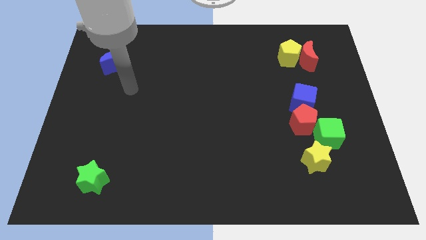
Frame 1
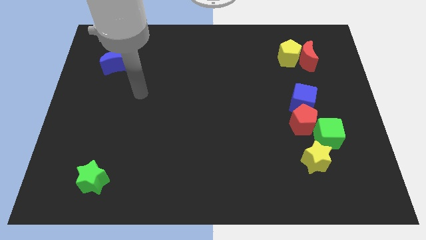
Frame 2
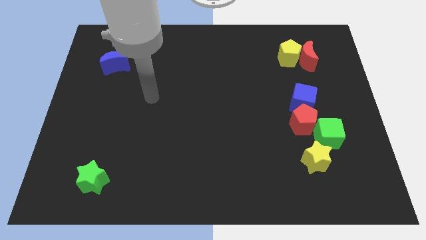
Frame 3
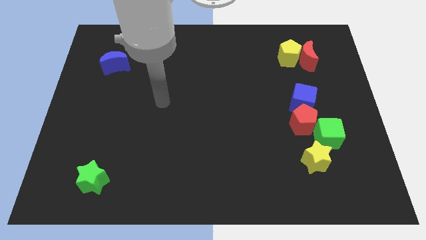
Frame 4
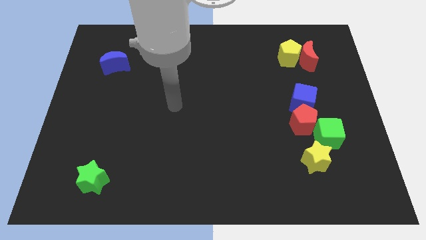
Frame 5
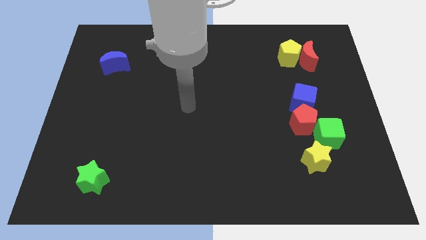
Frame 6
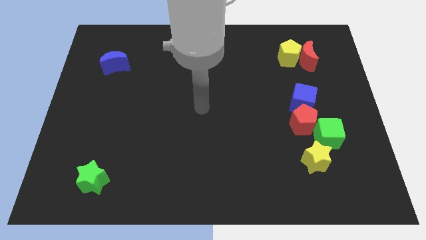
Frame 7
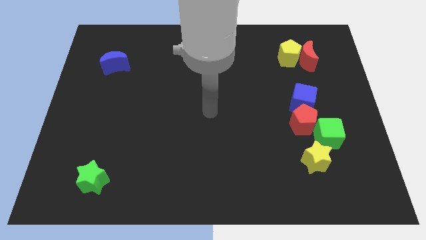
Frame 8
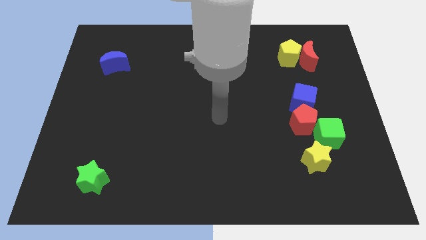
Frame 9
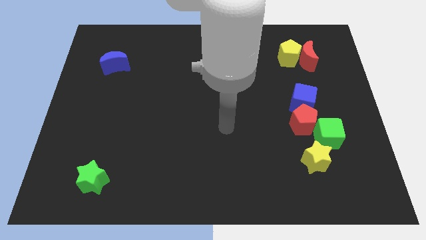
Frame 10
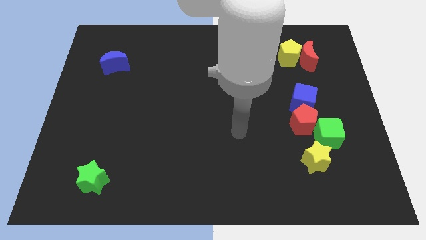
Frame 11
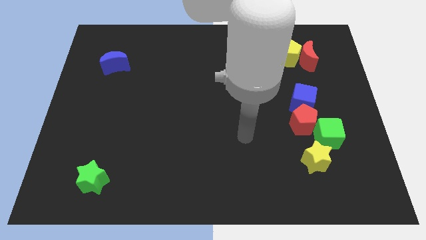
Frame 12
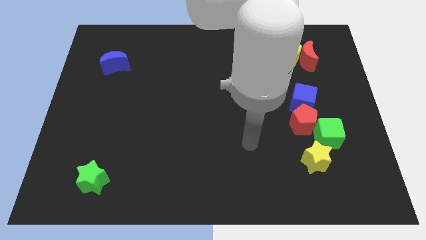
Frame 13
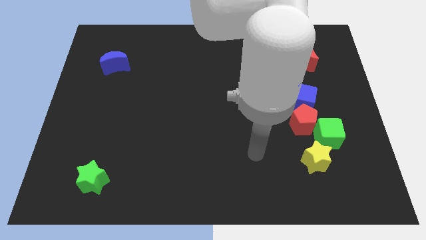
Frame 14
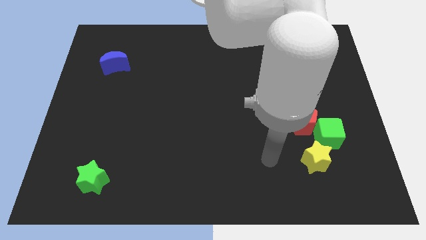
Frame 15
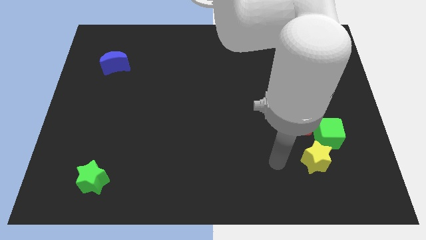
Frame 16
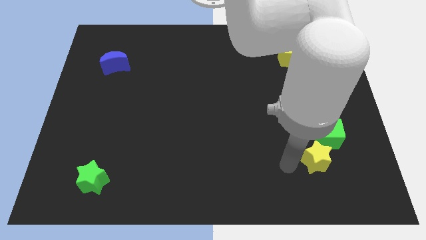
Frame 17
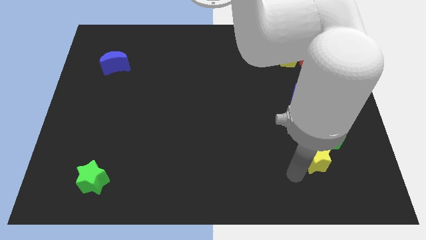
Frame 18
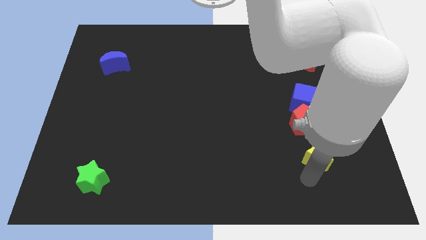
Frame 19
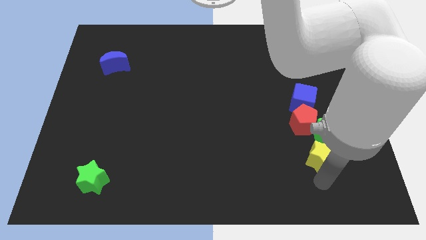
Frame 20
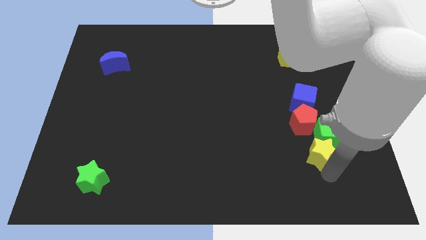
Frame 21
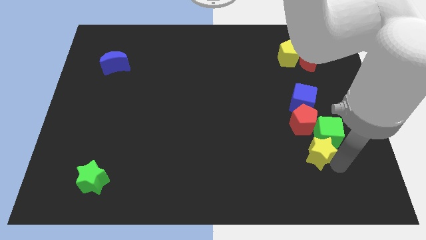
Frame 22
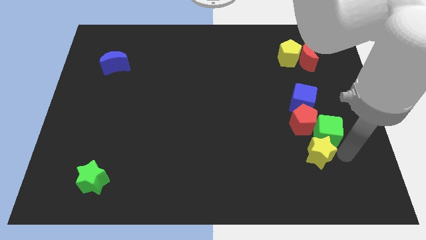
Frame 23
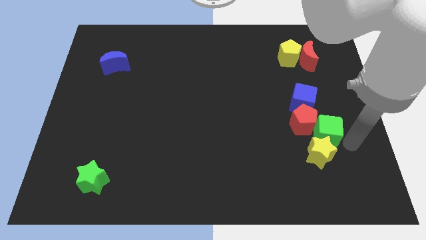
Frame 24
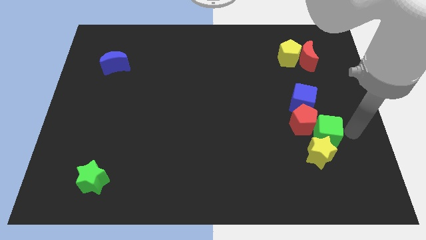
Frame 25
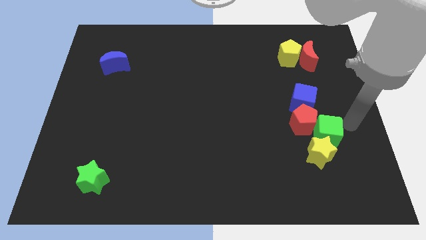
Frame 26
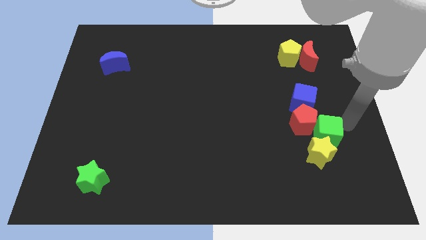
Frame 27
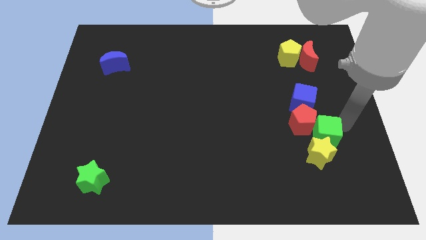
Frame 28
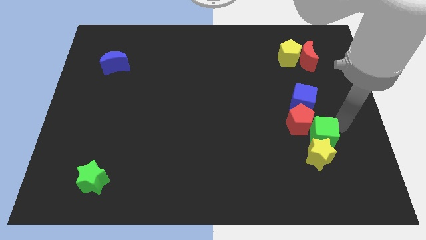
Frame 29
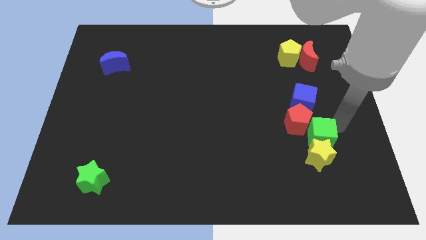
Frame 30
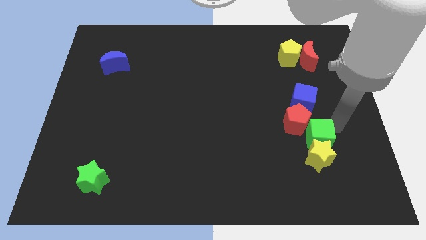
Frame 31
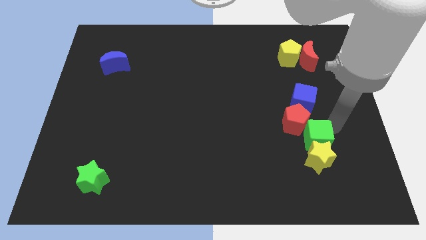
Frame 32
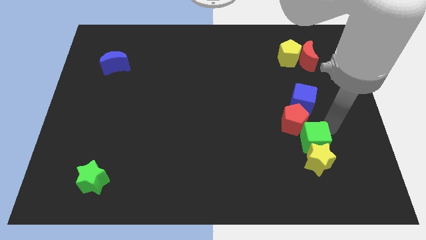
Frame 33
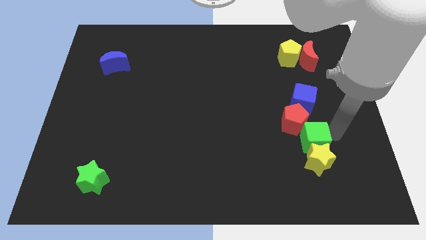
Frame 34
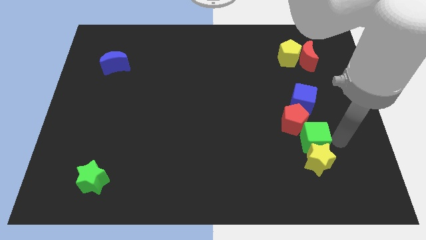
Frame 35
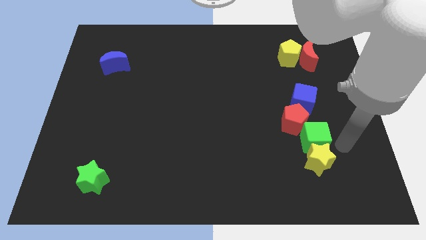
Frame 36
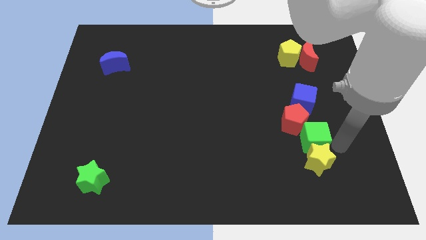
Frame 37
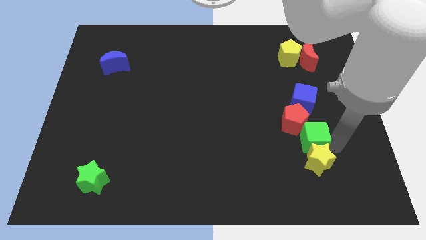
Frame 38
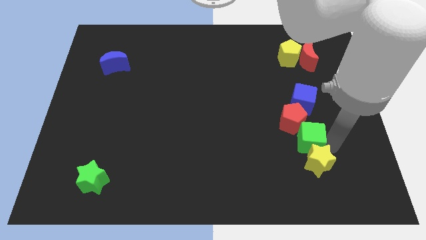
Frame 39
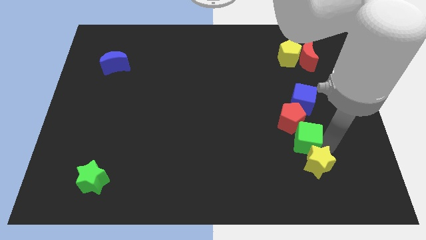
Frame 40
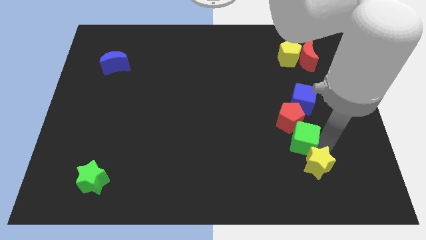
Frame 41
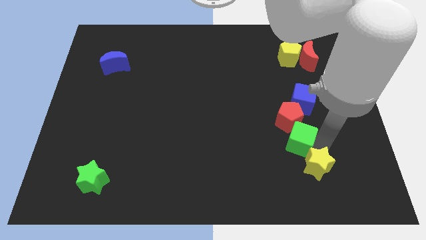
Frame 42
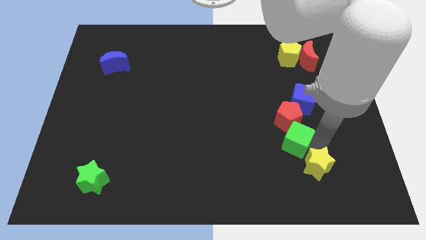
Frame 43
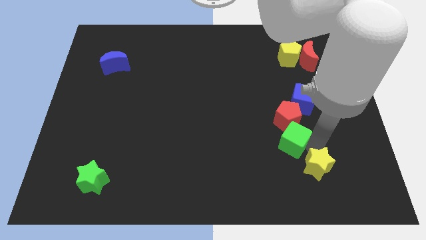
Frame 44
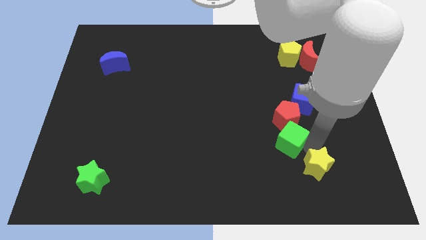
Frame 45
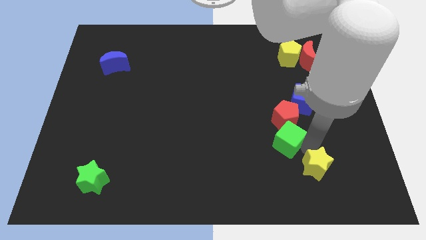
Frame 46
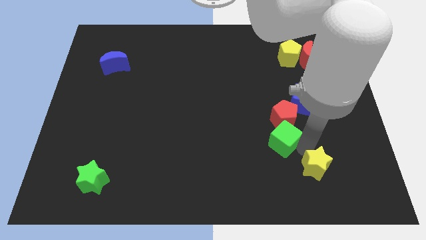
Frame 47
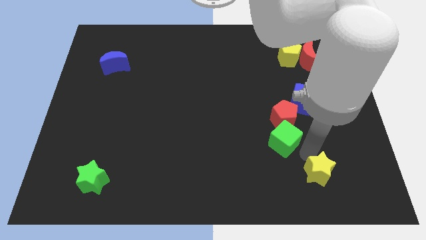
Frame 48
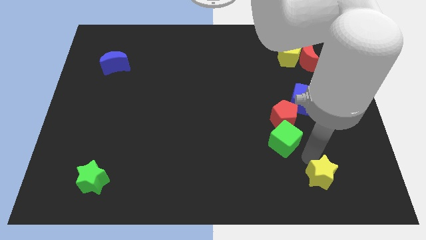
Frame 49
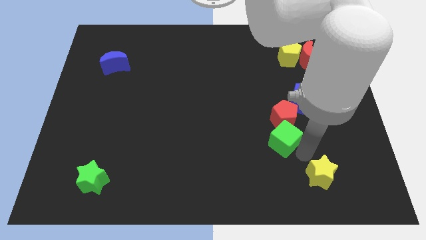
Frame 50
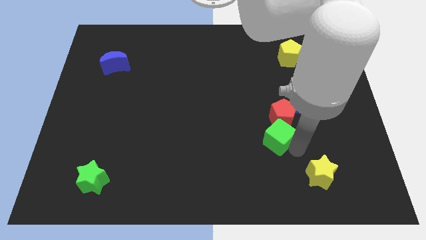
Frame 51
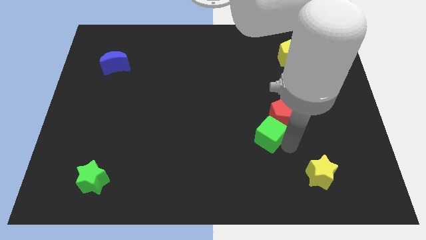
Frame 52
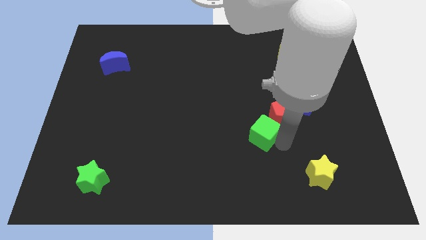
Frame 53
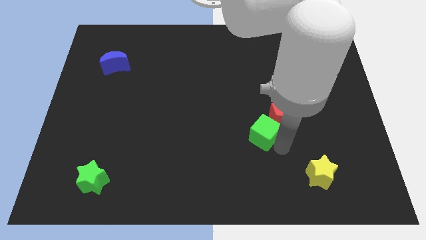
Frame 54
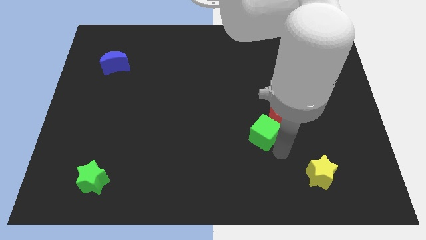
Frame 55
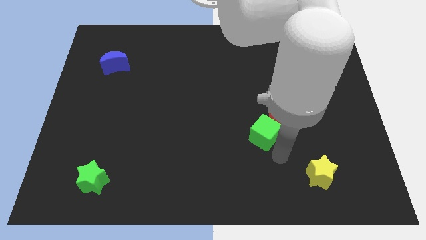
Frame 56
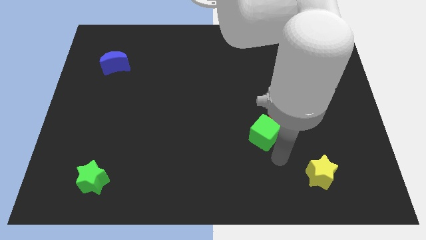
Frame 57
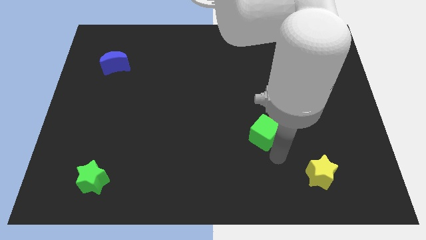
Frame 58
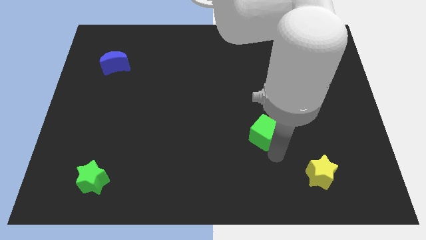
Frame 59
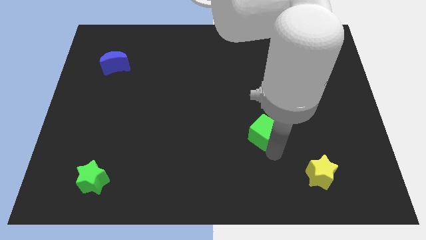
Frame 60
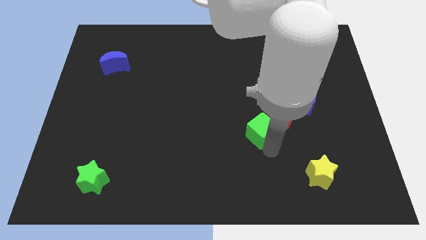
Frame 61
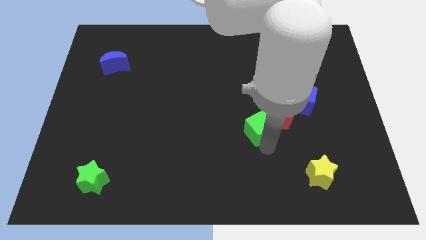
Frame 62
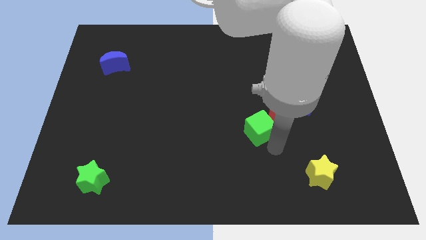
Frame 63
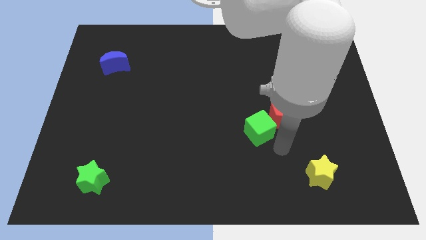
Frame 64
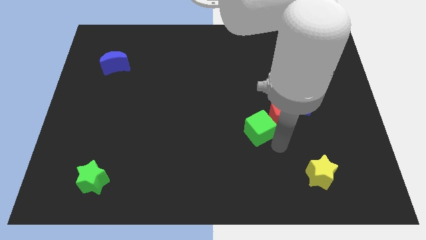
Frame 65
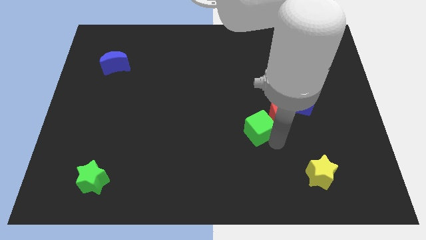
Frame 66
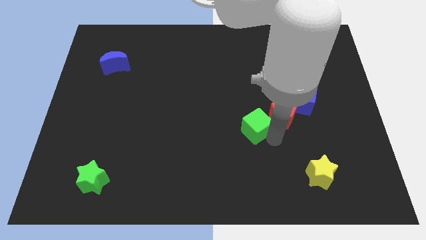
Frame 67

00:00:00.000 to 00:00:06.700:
move the green cube to the center
